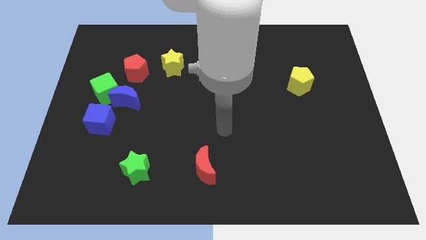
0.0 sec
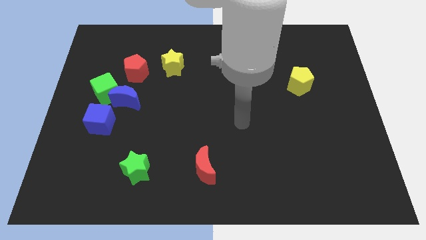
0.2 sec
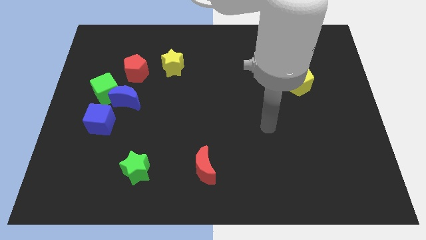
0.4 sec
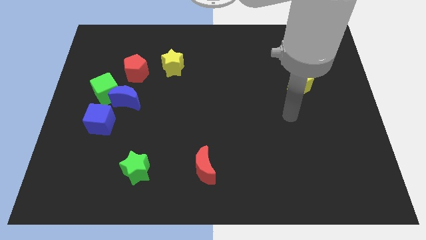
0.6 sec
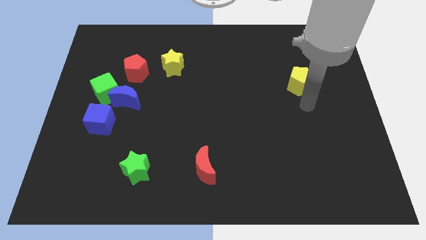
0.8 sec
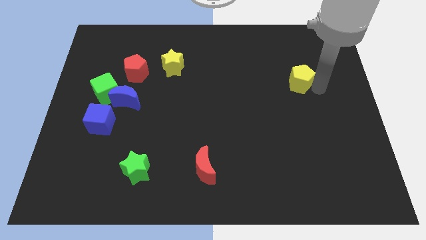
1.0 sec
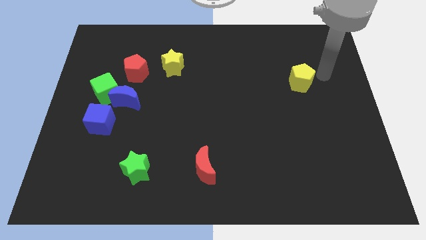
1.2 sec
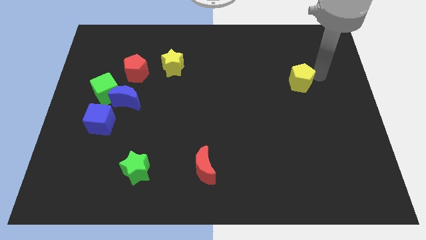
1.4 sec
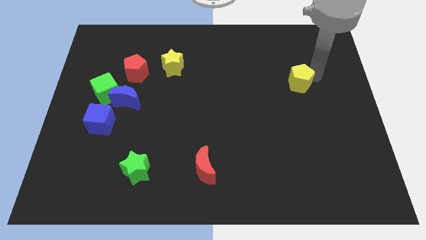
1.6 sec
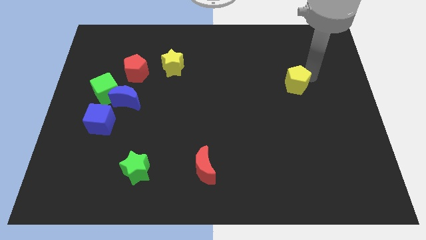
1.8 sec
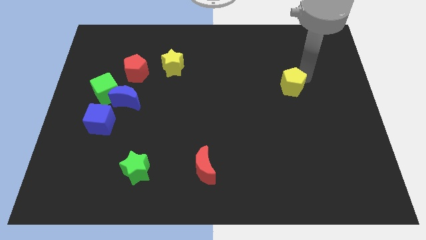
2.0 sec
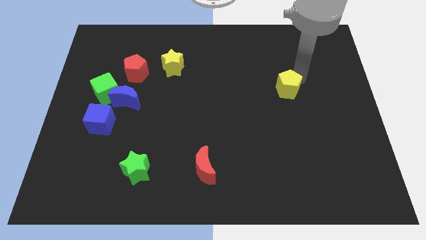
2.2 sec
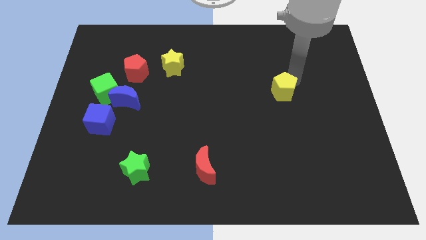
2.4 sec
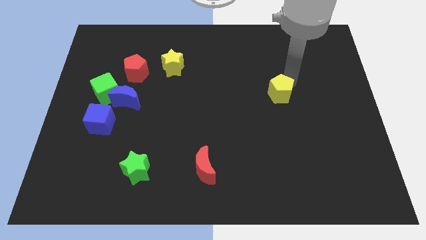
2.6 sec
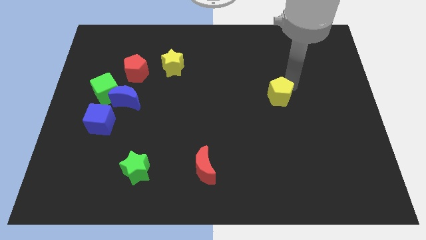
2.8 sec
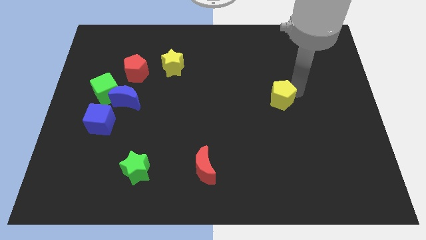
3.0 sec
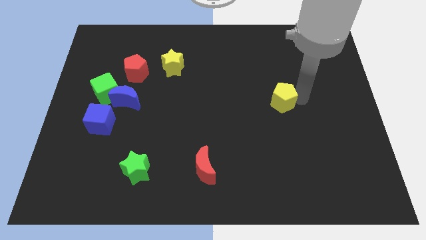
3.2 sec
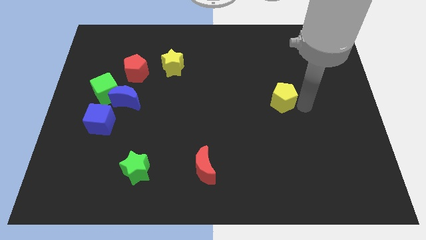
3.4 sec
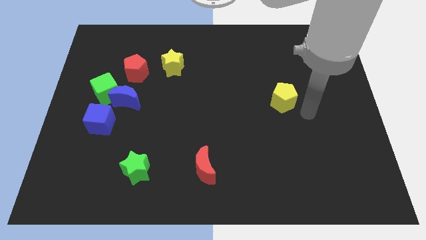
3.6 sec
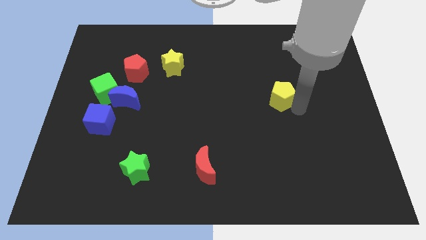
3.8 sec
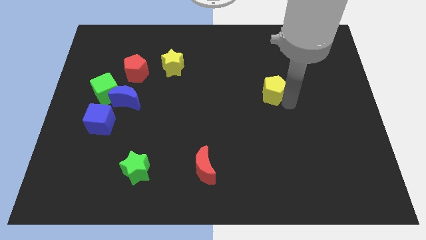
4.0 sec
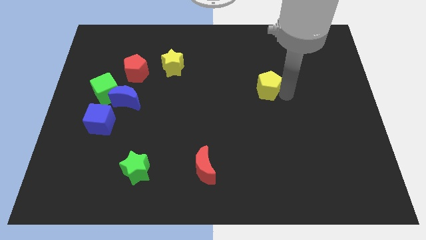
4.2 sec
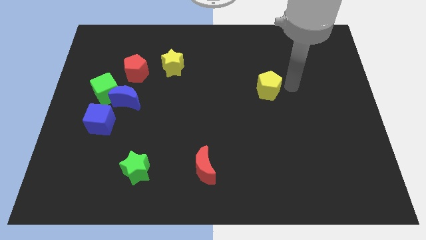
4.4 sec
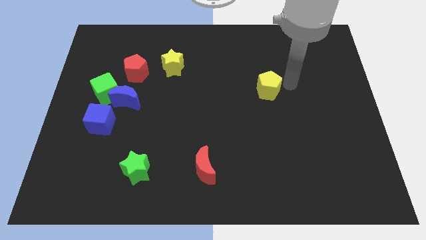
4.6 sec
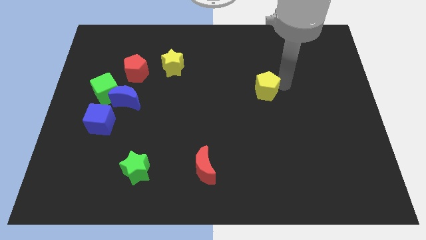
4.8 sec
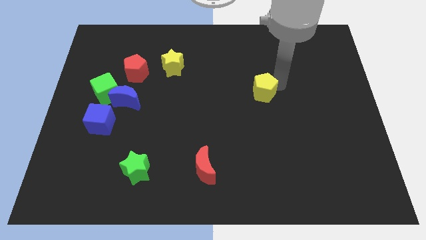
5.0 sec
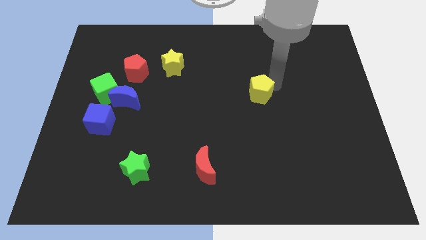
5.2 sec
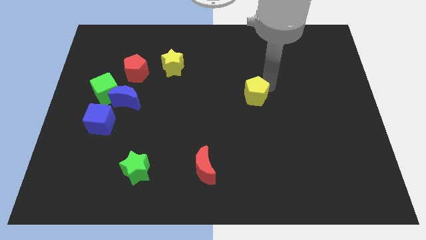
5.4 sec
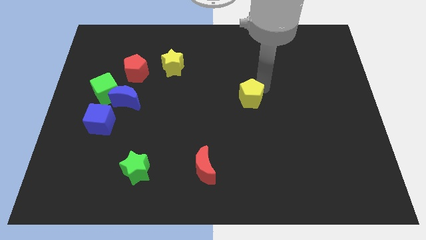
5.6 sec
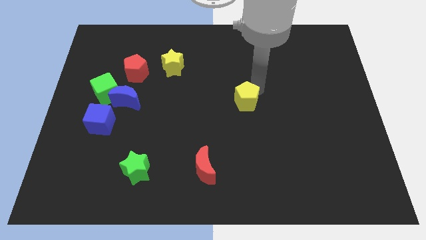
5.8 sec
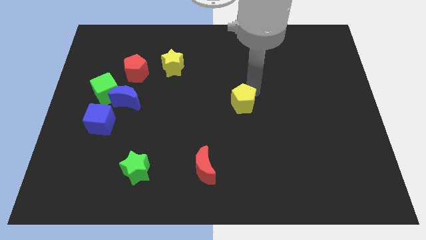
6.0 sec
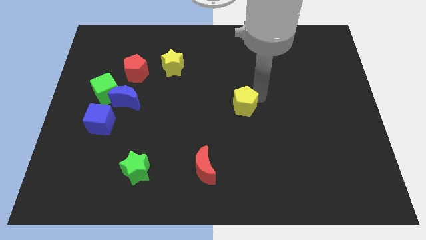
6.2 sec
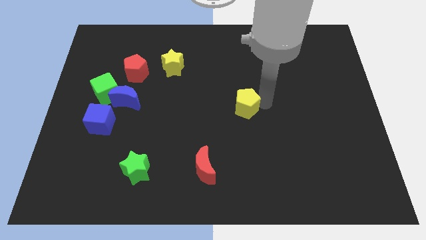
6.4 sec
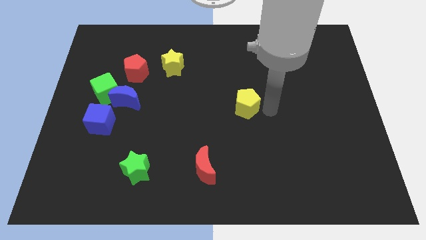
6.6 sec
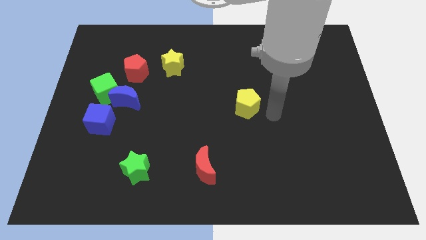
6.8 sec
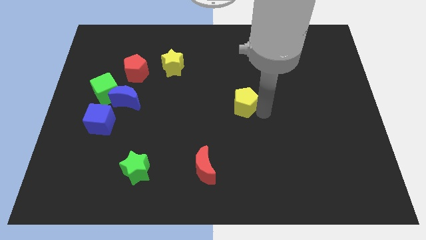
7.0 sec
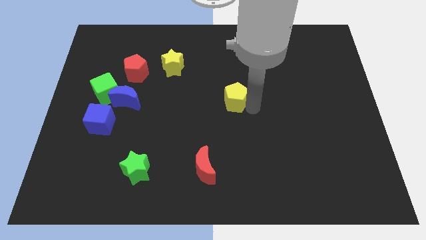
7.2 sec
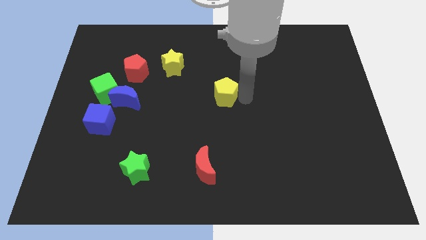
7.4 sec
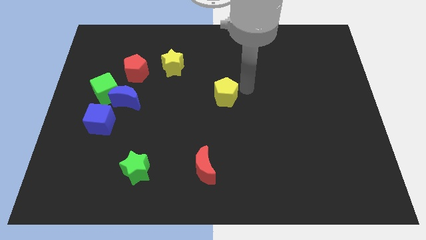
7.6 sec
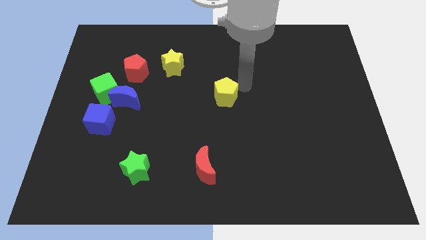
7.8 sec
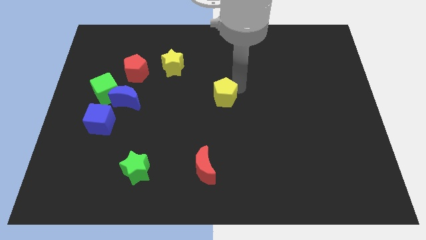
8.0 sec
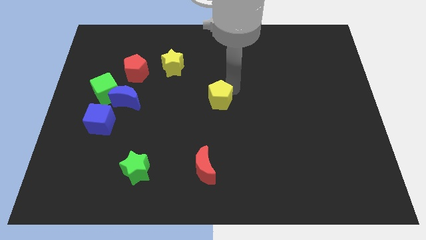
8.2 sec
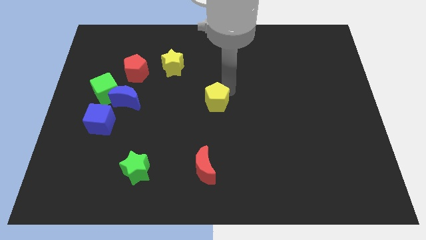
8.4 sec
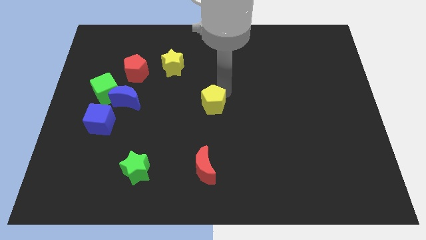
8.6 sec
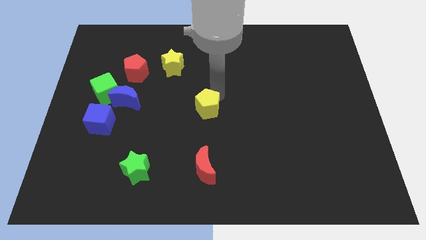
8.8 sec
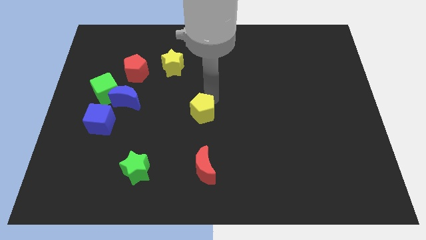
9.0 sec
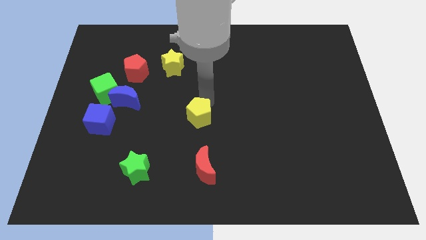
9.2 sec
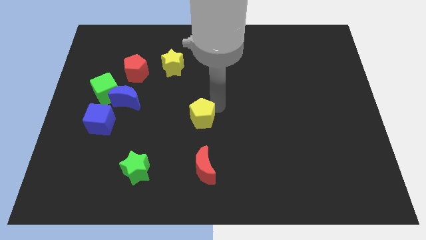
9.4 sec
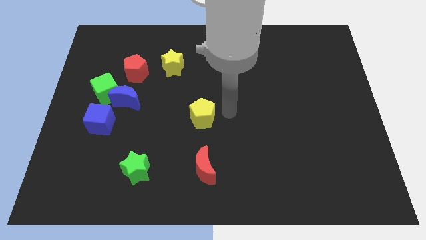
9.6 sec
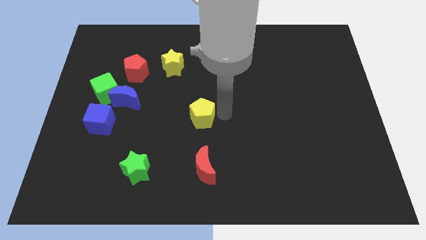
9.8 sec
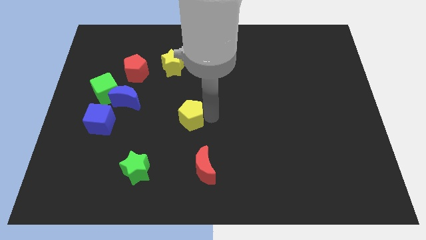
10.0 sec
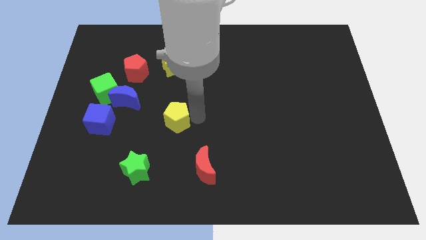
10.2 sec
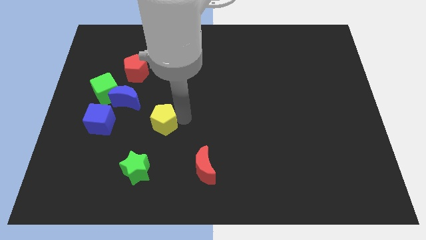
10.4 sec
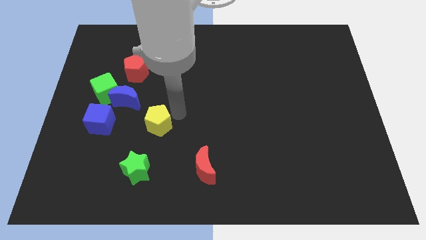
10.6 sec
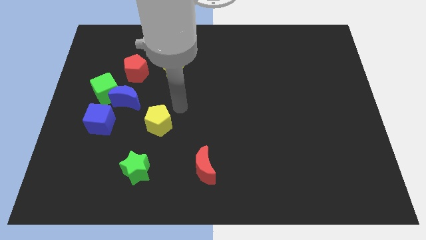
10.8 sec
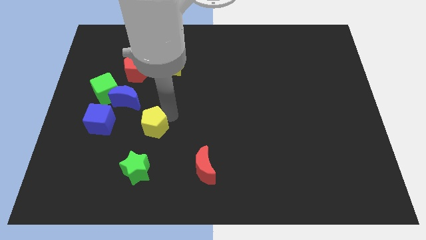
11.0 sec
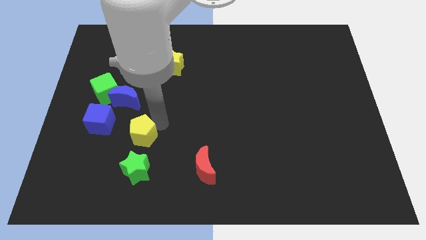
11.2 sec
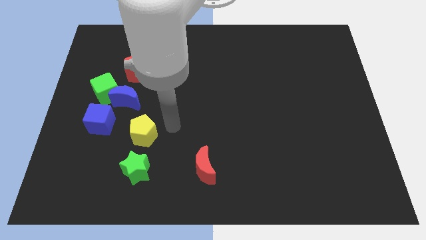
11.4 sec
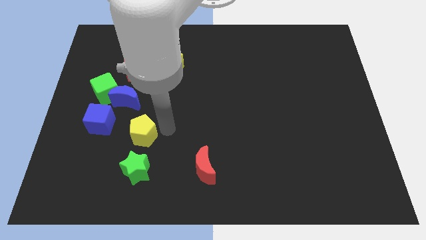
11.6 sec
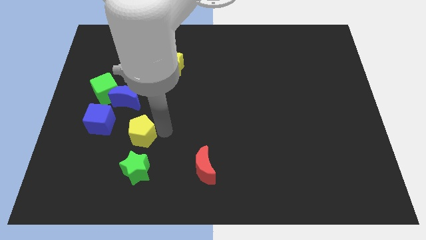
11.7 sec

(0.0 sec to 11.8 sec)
put the yellow pentagon diagonally down and to the right of the blue cube
